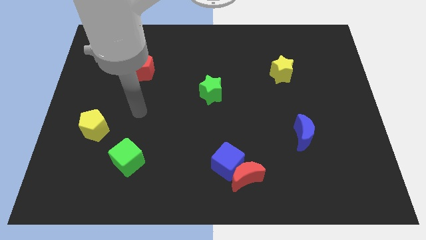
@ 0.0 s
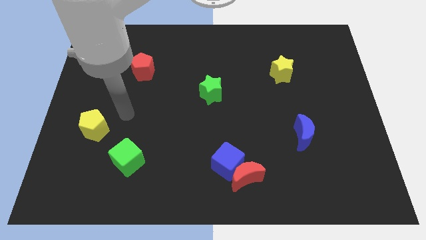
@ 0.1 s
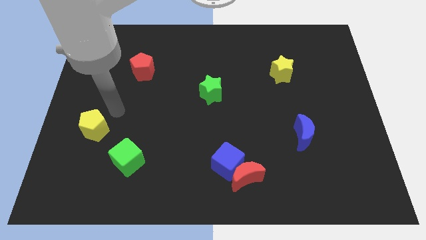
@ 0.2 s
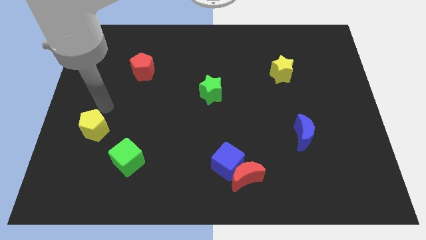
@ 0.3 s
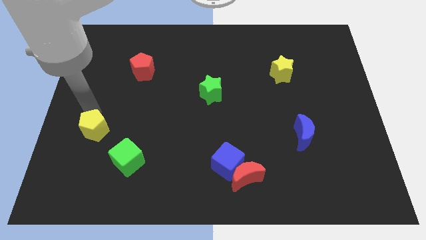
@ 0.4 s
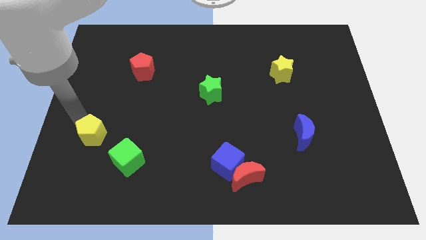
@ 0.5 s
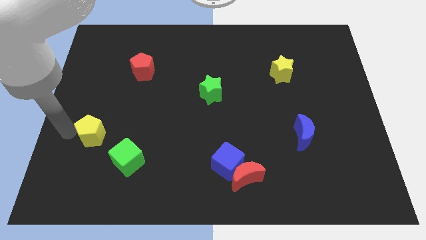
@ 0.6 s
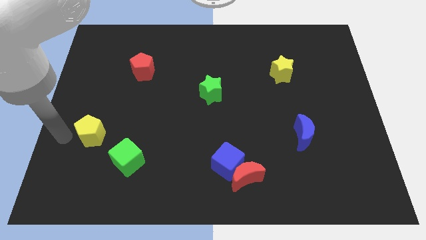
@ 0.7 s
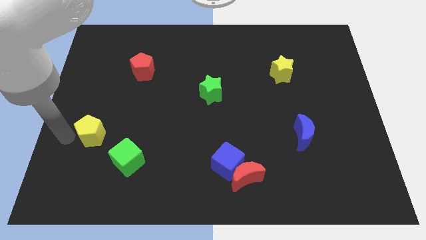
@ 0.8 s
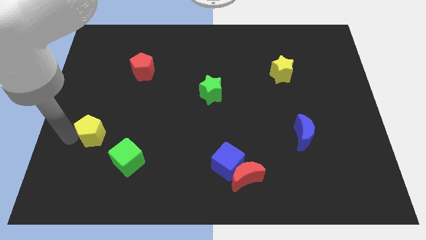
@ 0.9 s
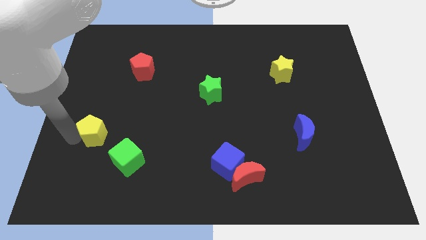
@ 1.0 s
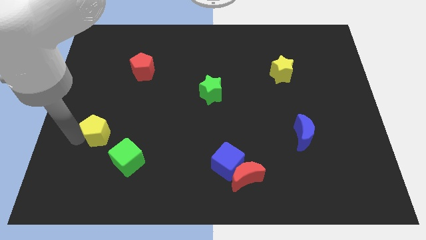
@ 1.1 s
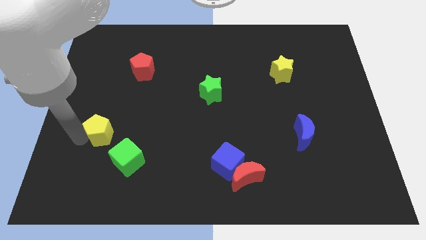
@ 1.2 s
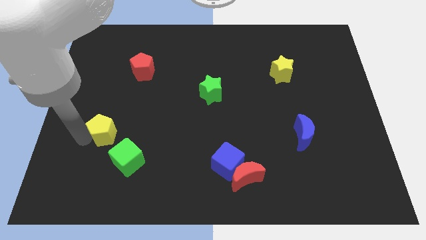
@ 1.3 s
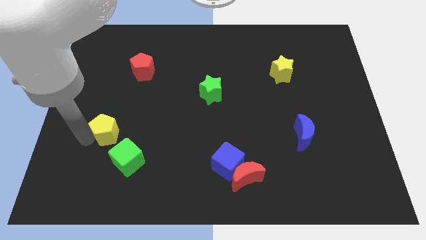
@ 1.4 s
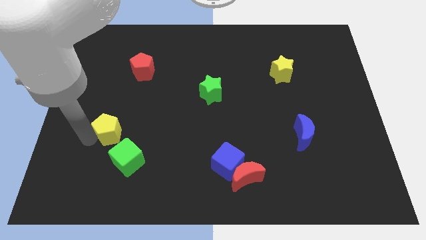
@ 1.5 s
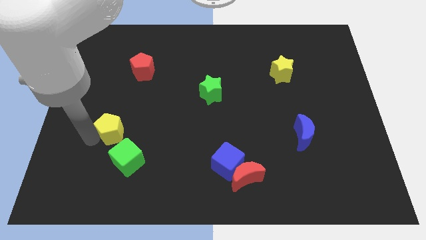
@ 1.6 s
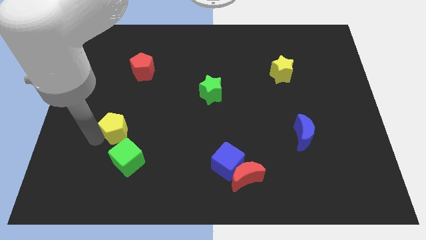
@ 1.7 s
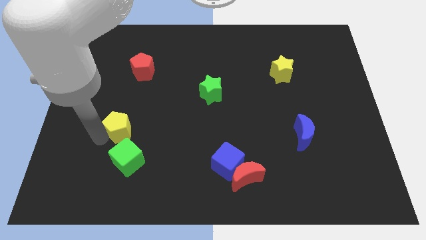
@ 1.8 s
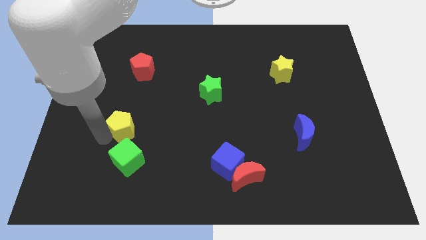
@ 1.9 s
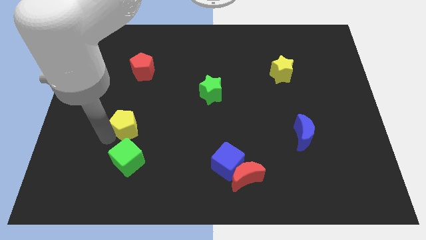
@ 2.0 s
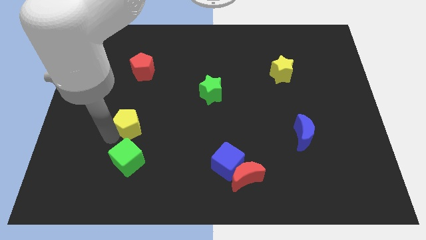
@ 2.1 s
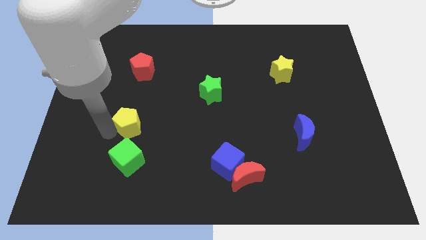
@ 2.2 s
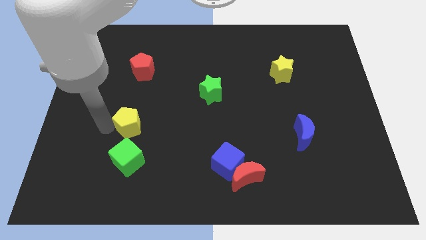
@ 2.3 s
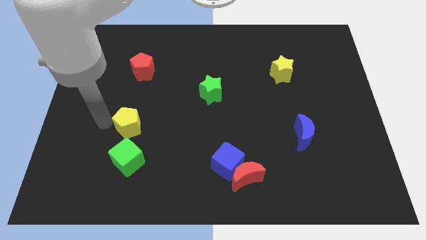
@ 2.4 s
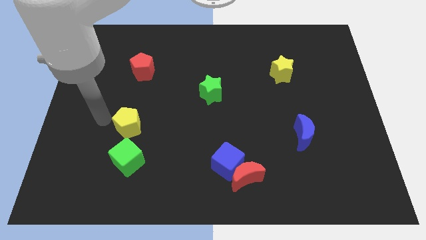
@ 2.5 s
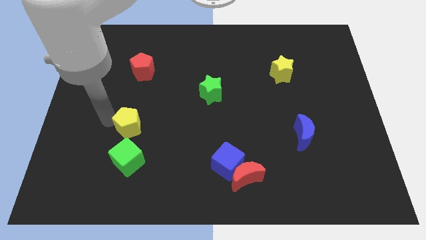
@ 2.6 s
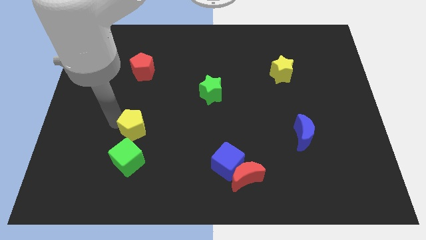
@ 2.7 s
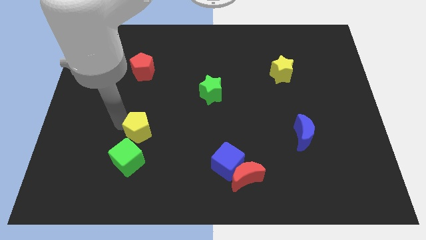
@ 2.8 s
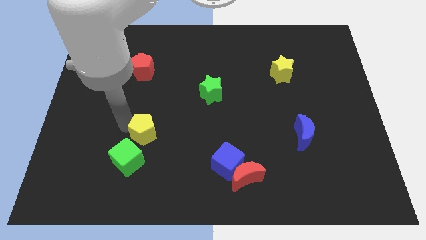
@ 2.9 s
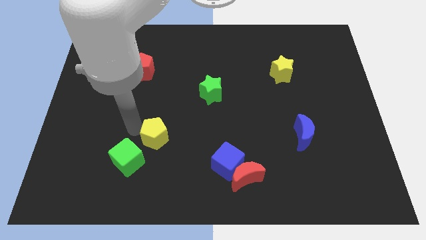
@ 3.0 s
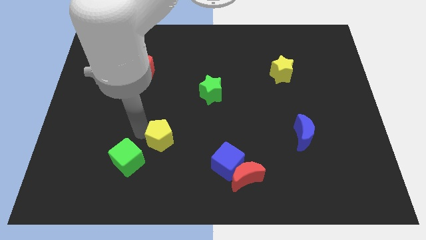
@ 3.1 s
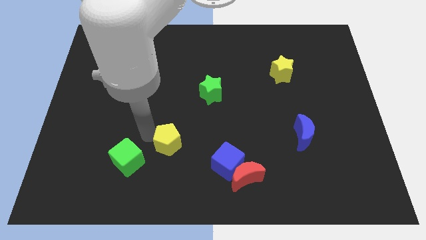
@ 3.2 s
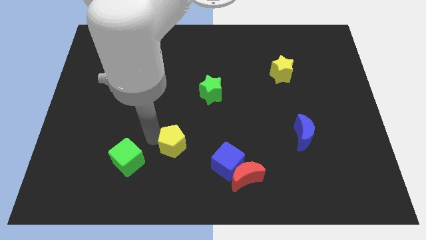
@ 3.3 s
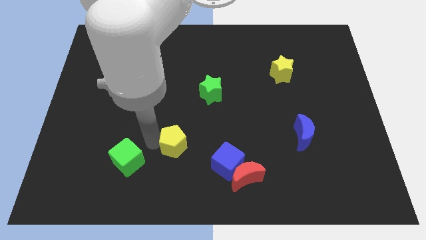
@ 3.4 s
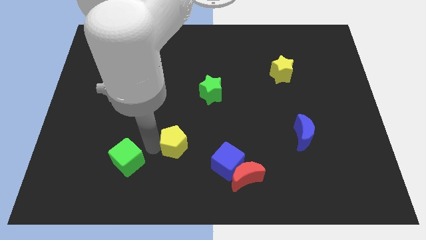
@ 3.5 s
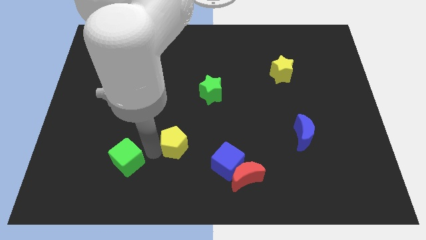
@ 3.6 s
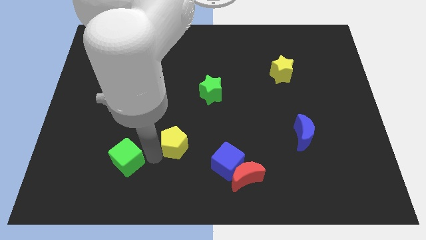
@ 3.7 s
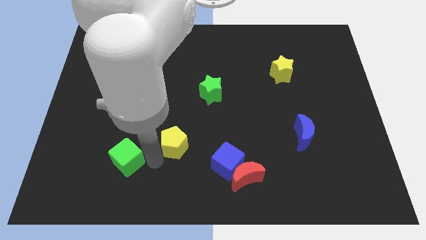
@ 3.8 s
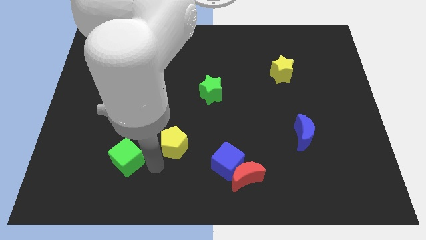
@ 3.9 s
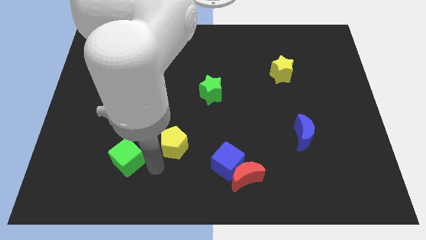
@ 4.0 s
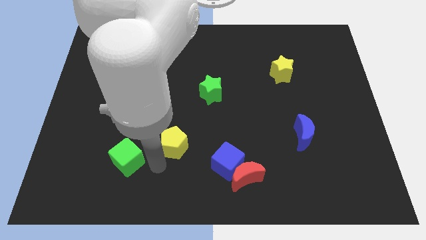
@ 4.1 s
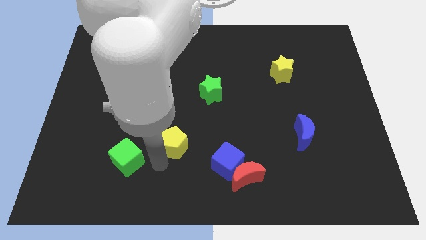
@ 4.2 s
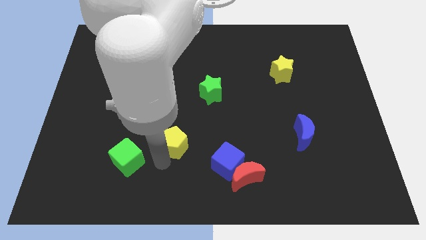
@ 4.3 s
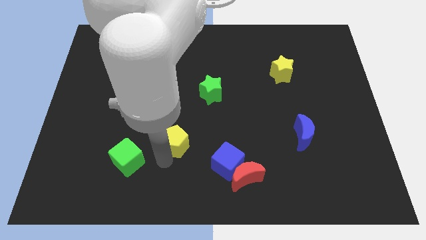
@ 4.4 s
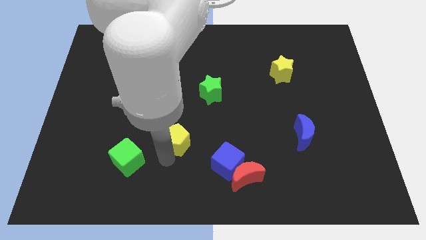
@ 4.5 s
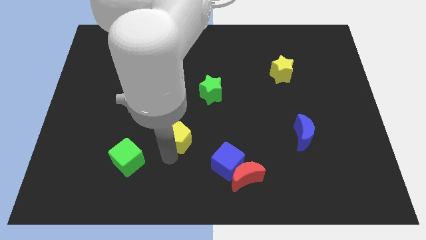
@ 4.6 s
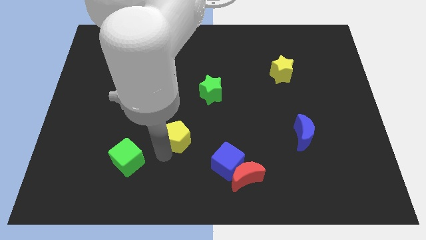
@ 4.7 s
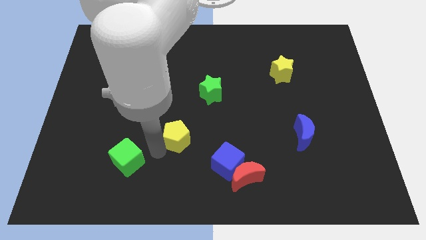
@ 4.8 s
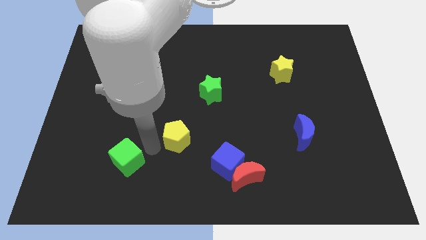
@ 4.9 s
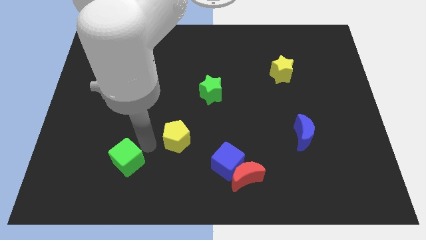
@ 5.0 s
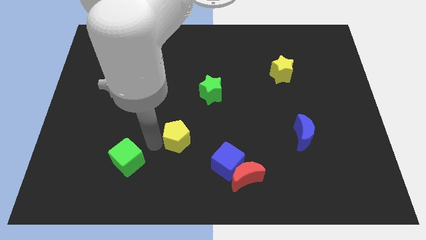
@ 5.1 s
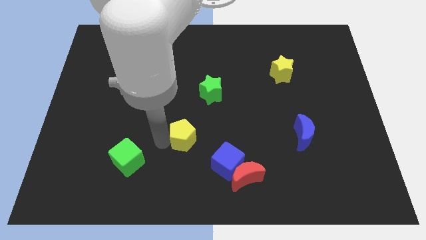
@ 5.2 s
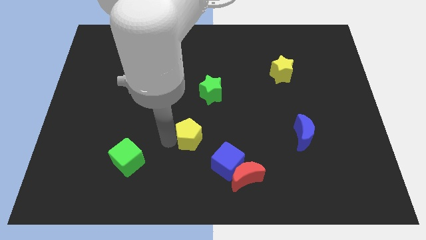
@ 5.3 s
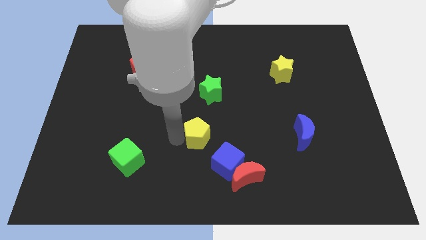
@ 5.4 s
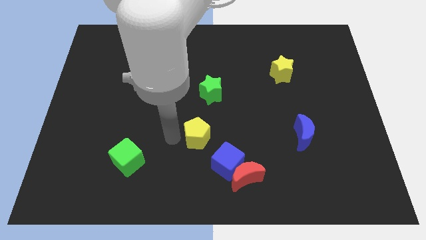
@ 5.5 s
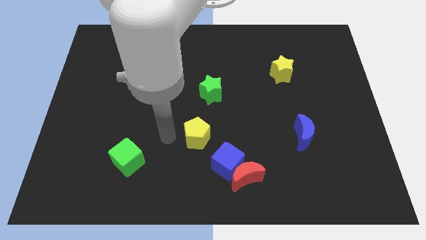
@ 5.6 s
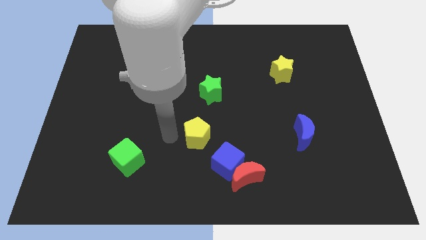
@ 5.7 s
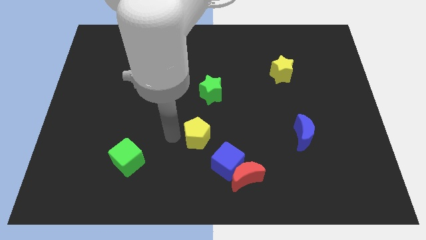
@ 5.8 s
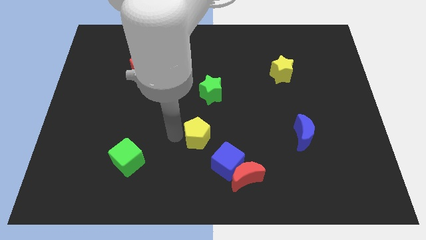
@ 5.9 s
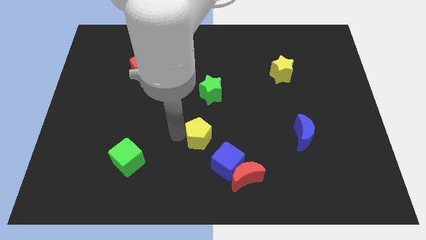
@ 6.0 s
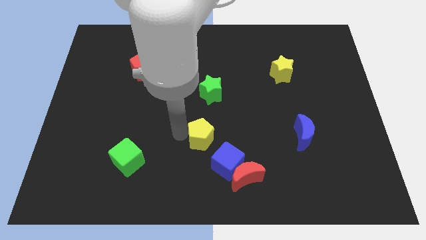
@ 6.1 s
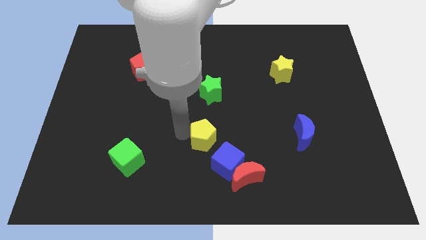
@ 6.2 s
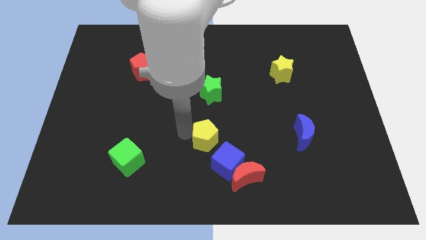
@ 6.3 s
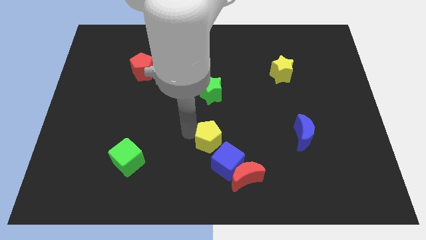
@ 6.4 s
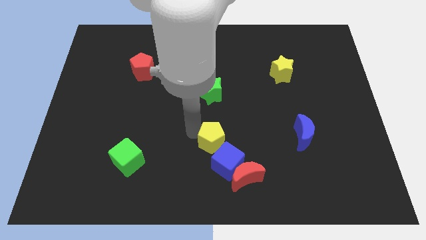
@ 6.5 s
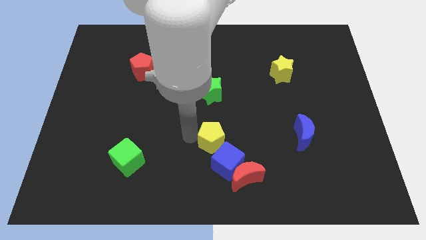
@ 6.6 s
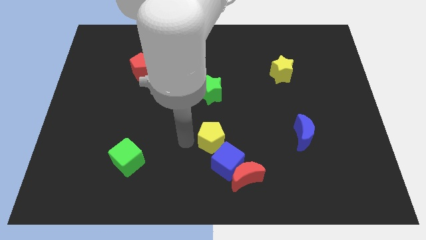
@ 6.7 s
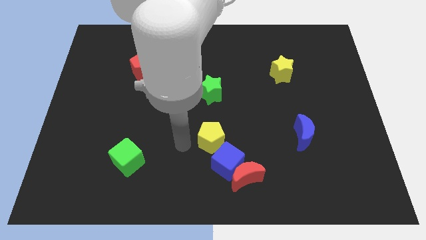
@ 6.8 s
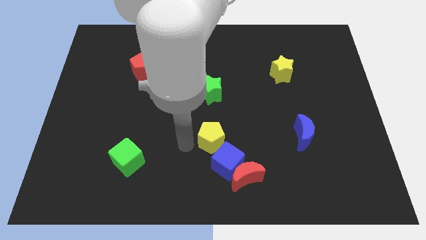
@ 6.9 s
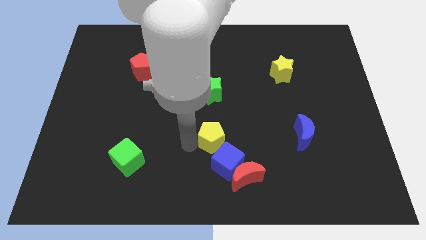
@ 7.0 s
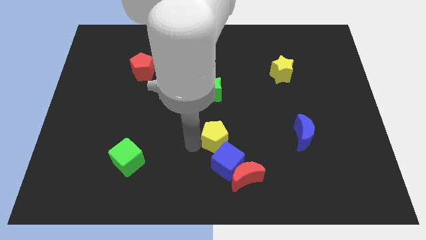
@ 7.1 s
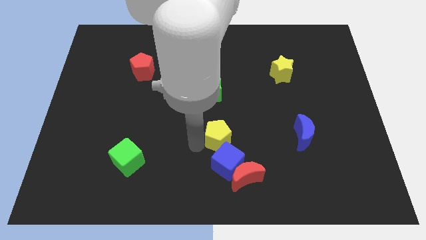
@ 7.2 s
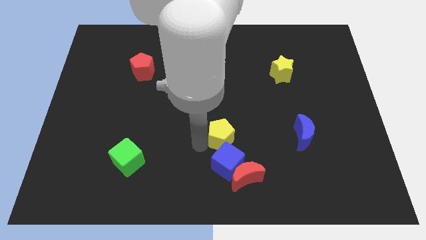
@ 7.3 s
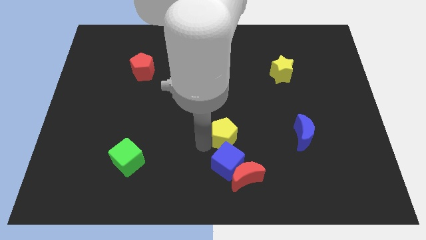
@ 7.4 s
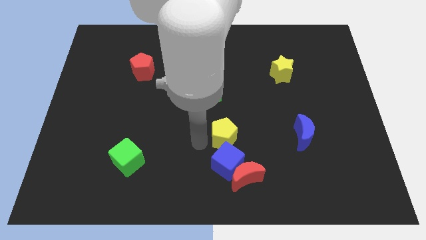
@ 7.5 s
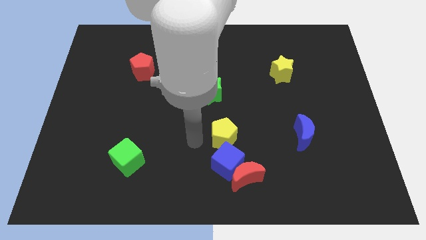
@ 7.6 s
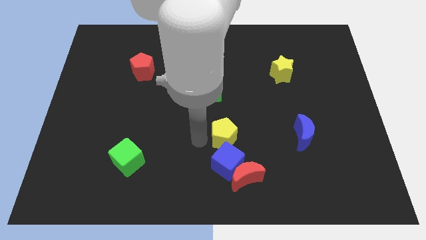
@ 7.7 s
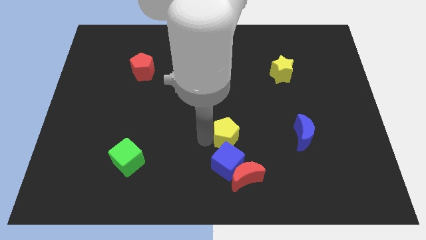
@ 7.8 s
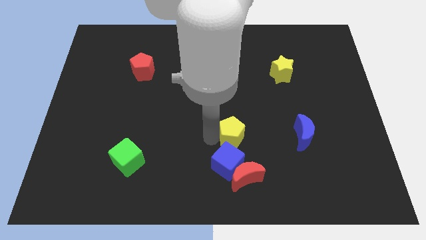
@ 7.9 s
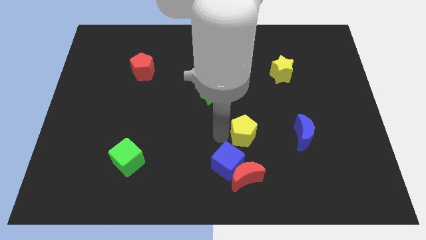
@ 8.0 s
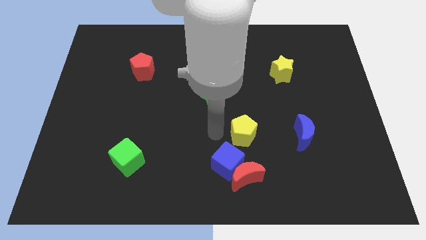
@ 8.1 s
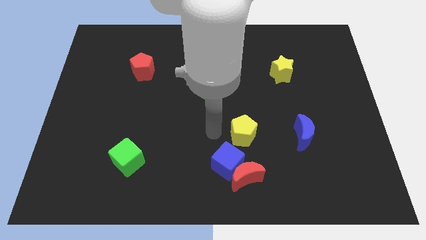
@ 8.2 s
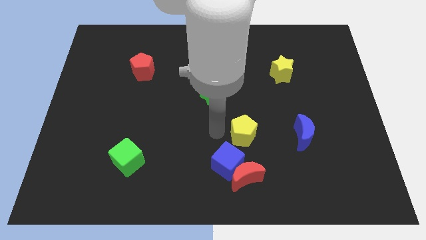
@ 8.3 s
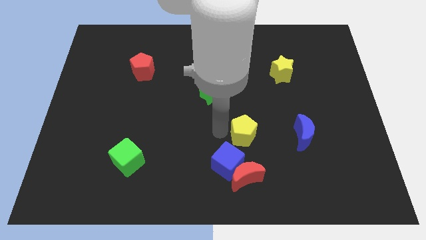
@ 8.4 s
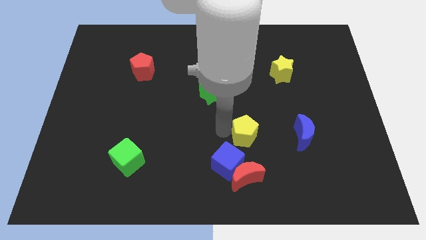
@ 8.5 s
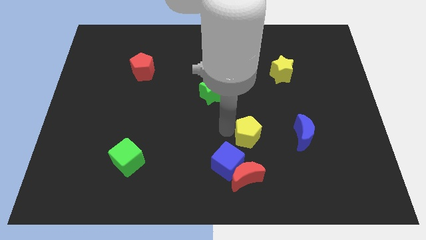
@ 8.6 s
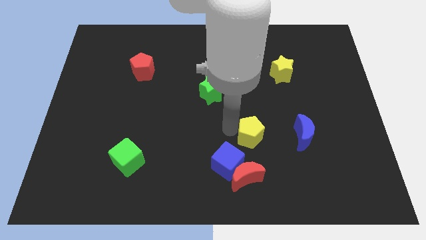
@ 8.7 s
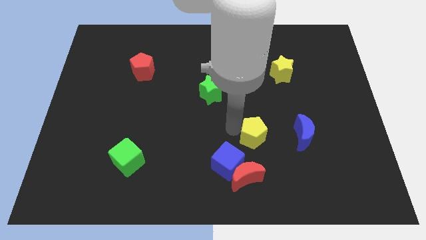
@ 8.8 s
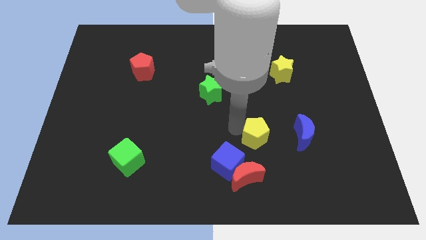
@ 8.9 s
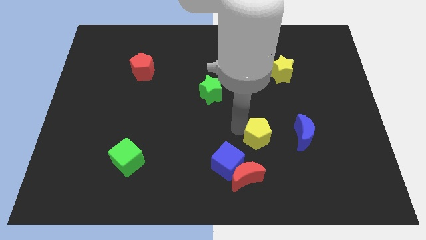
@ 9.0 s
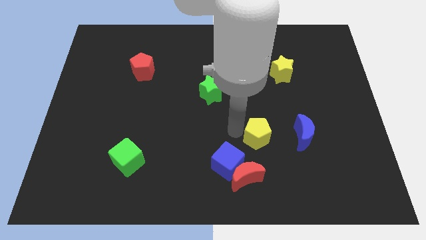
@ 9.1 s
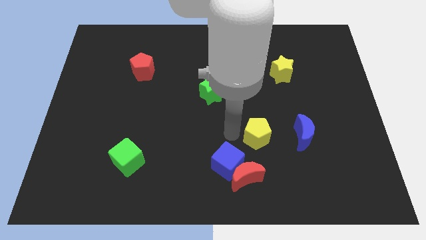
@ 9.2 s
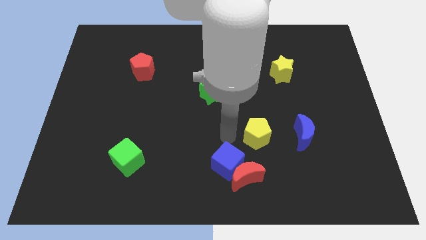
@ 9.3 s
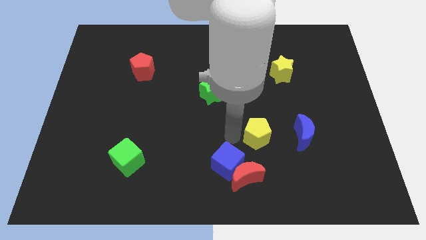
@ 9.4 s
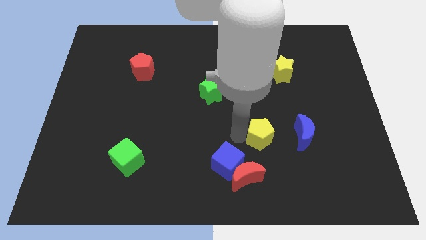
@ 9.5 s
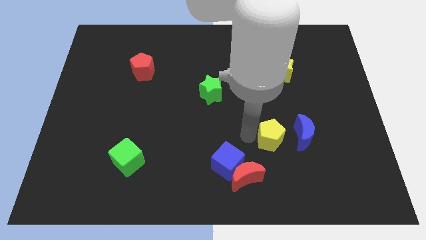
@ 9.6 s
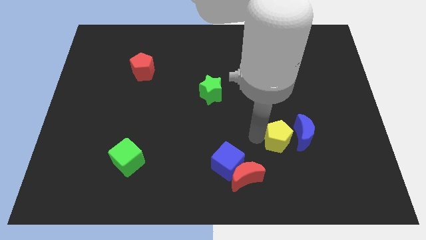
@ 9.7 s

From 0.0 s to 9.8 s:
push the yellow pentagon to the blue moon
